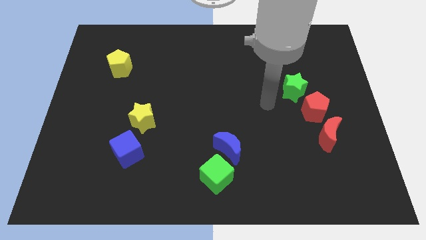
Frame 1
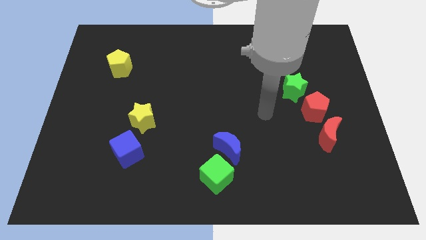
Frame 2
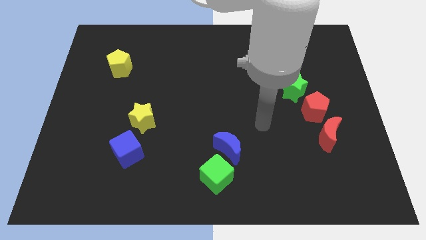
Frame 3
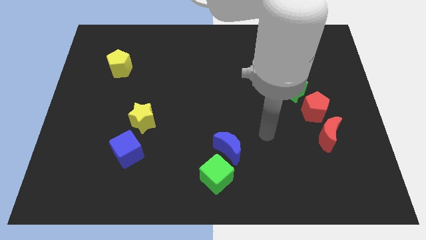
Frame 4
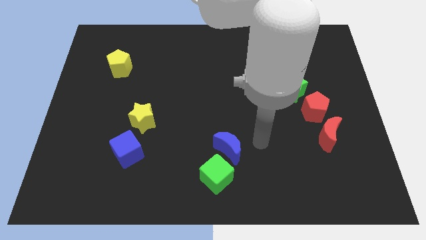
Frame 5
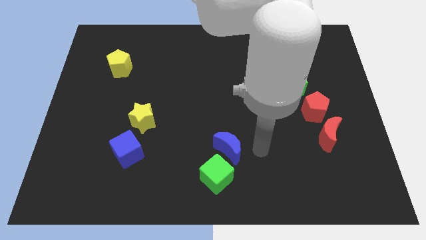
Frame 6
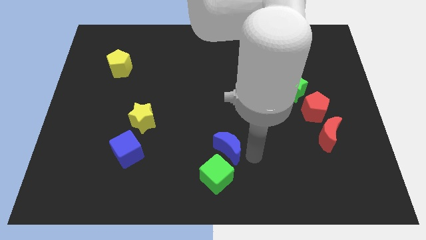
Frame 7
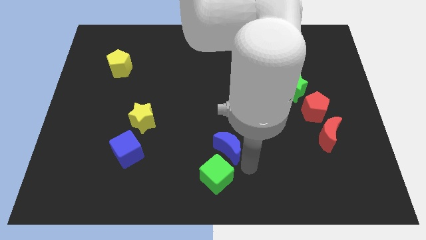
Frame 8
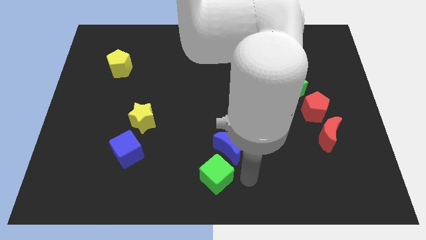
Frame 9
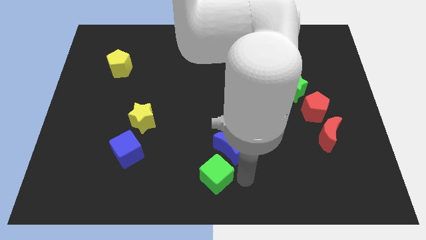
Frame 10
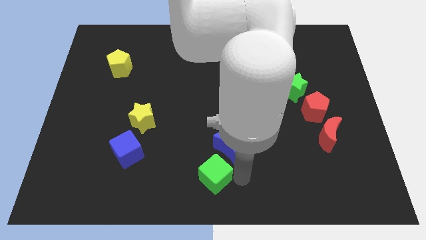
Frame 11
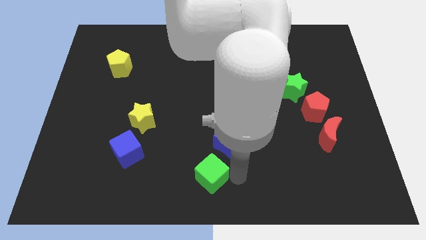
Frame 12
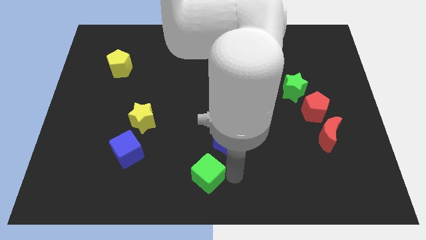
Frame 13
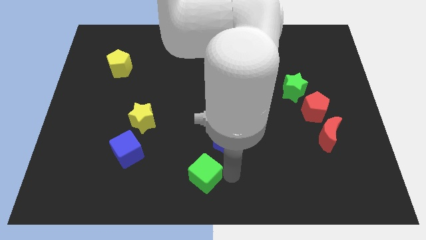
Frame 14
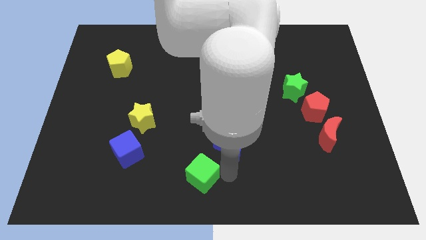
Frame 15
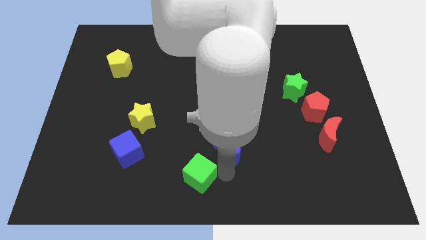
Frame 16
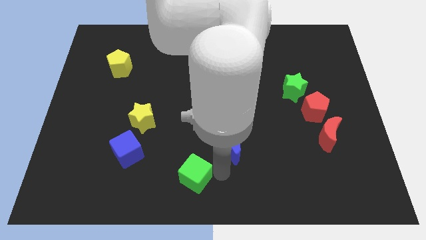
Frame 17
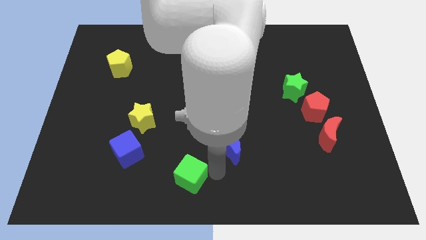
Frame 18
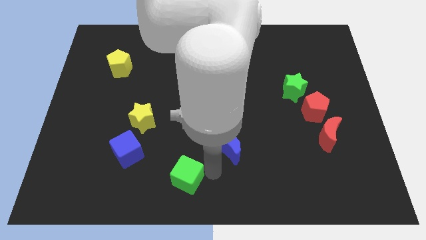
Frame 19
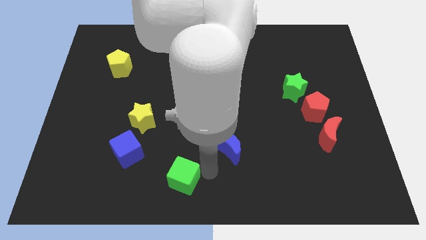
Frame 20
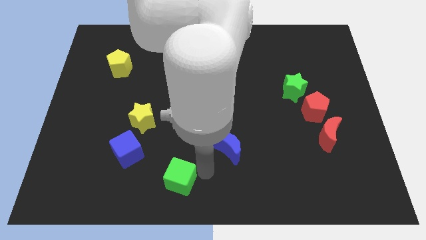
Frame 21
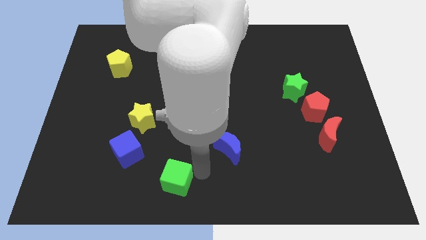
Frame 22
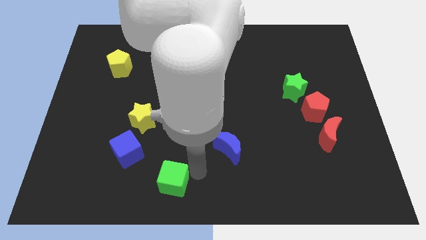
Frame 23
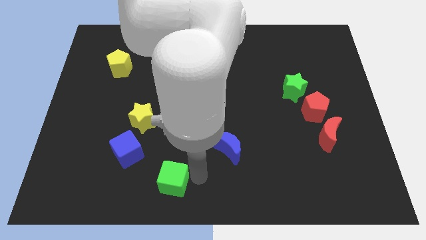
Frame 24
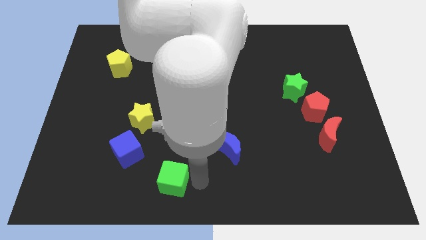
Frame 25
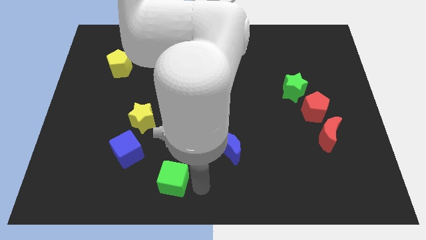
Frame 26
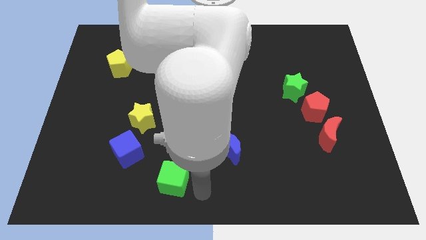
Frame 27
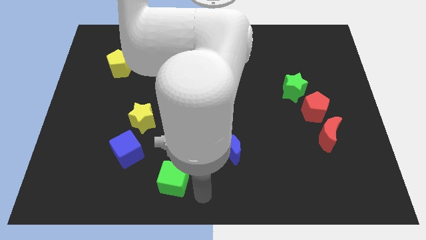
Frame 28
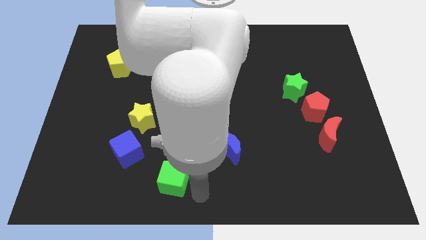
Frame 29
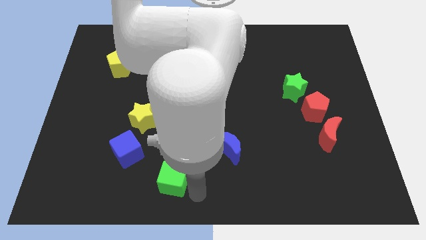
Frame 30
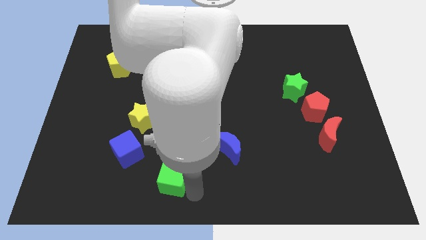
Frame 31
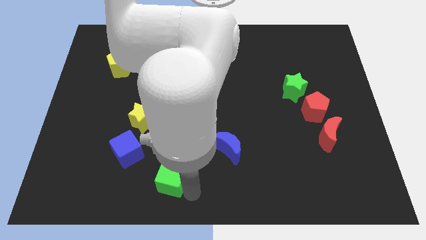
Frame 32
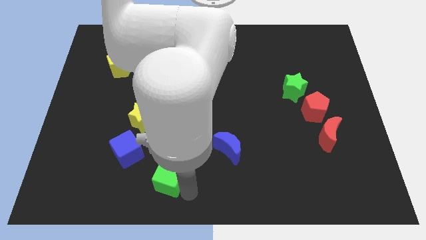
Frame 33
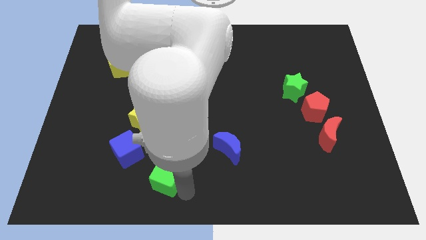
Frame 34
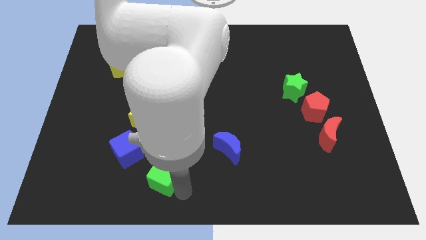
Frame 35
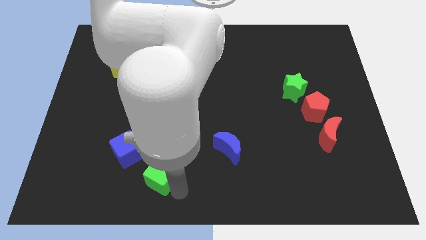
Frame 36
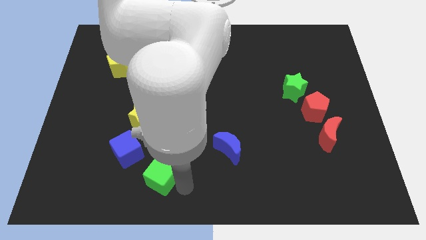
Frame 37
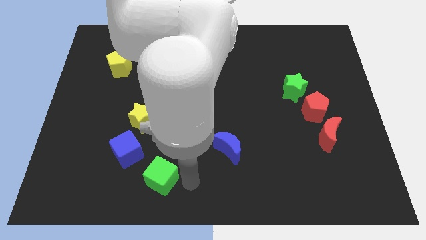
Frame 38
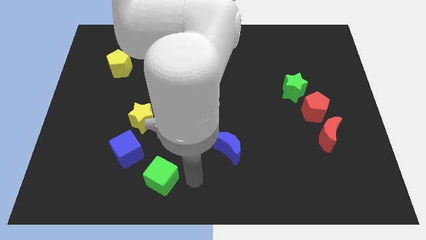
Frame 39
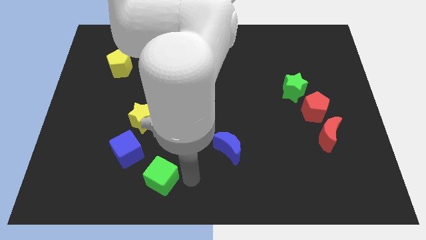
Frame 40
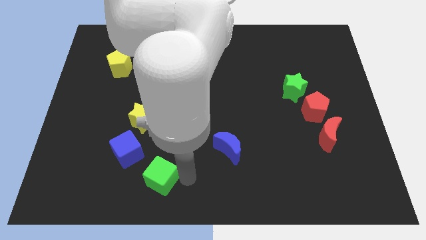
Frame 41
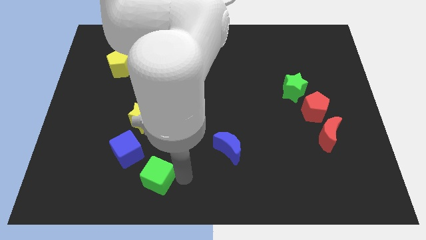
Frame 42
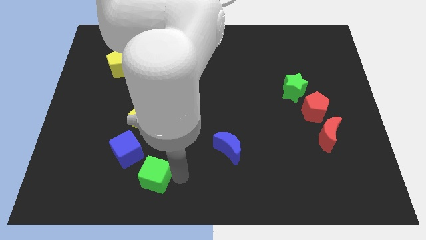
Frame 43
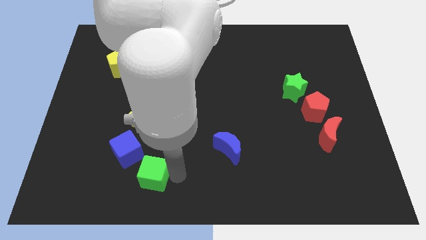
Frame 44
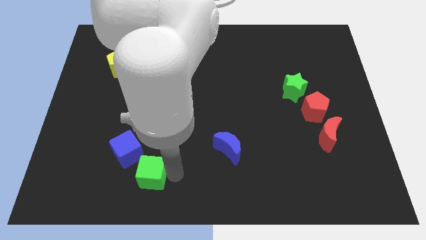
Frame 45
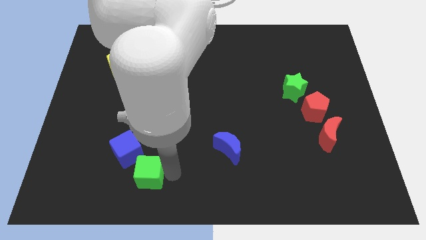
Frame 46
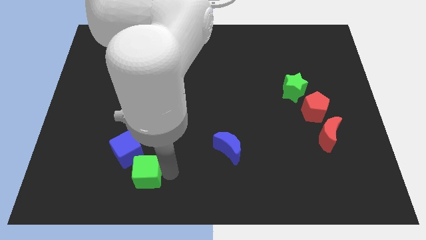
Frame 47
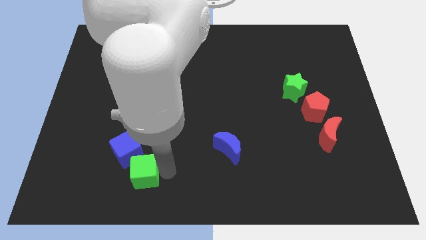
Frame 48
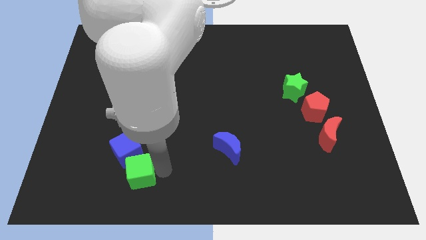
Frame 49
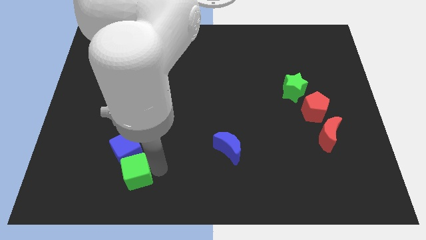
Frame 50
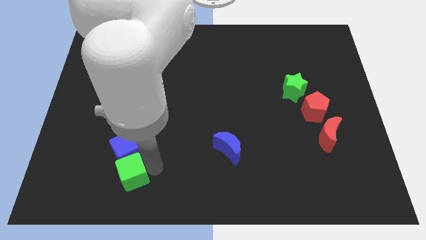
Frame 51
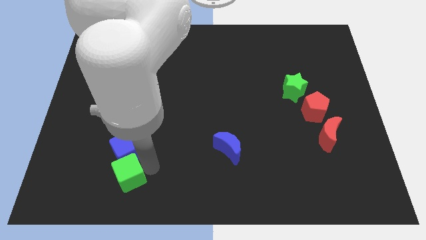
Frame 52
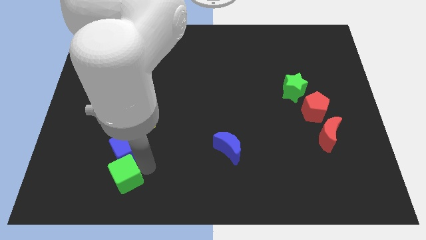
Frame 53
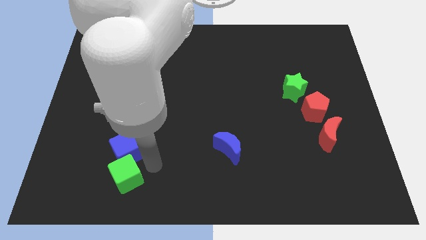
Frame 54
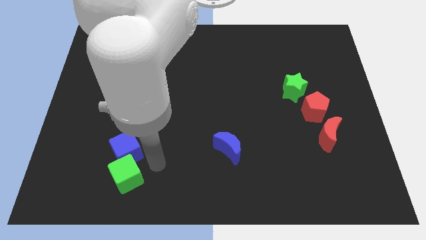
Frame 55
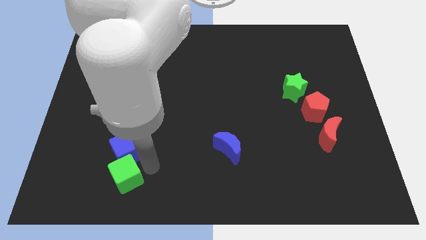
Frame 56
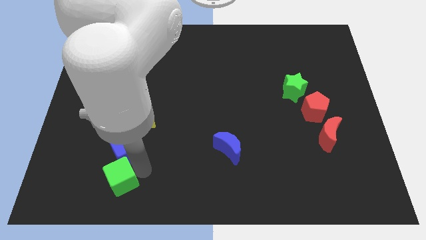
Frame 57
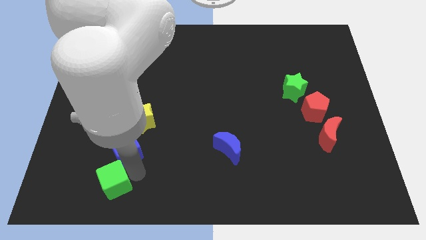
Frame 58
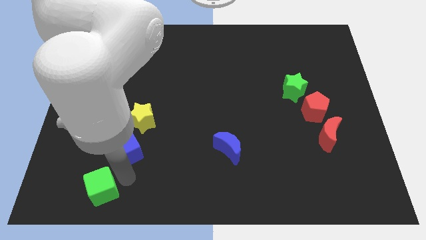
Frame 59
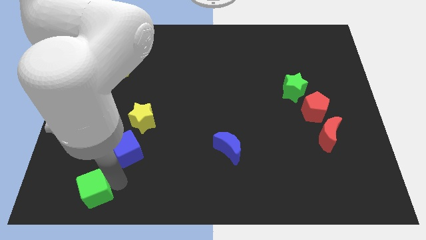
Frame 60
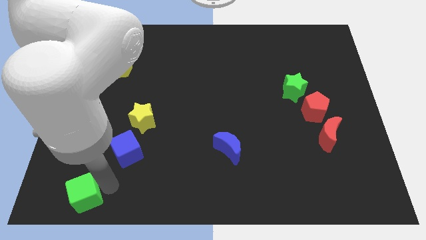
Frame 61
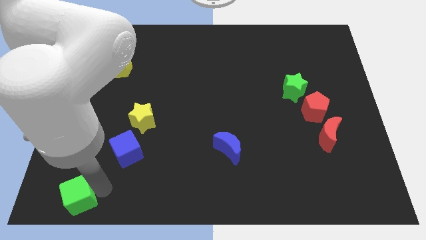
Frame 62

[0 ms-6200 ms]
move the green cube to the lower left corner
